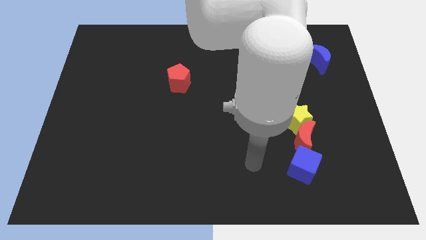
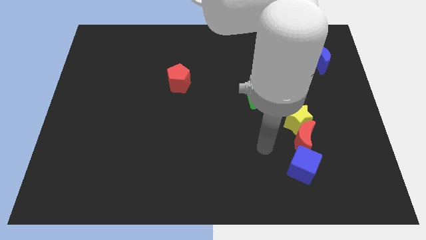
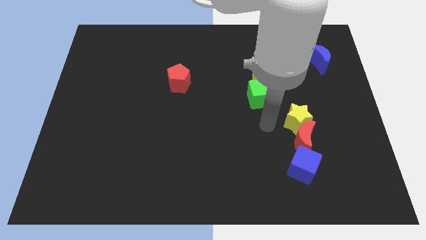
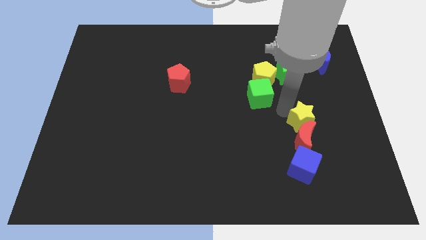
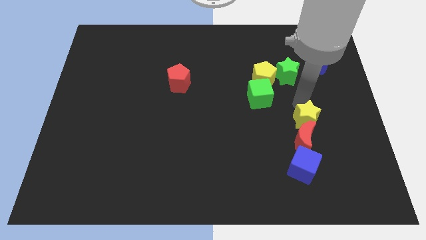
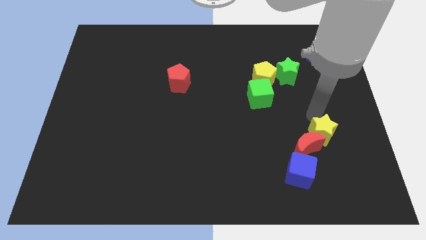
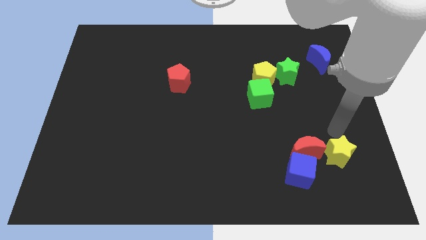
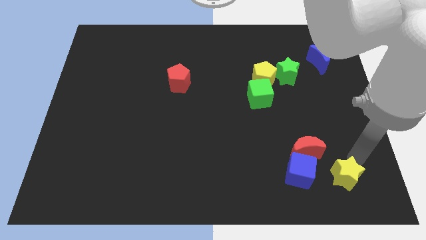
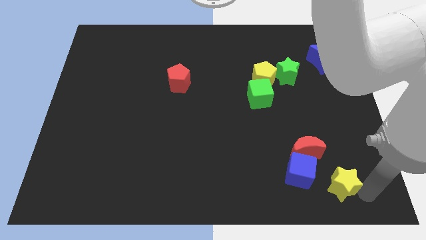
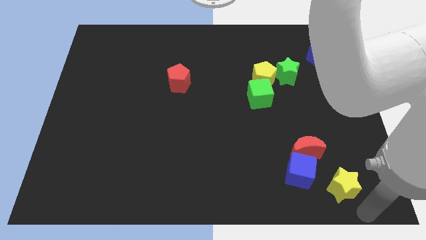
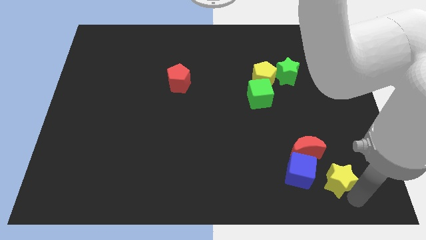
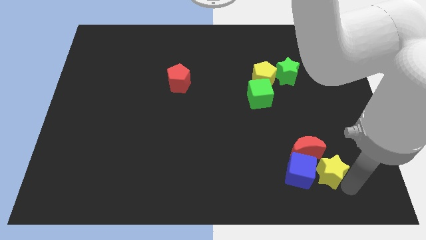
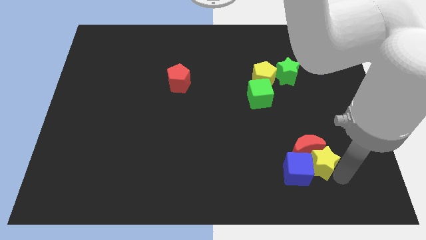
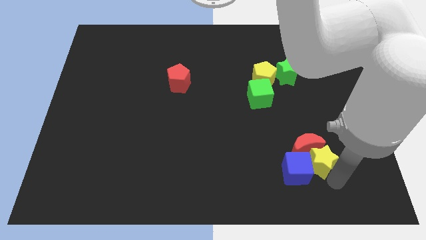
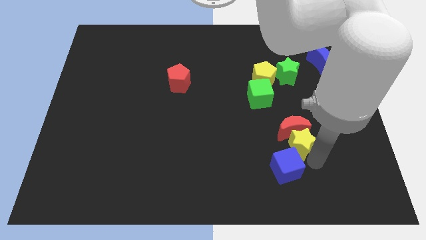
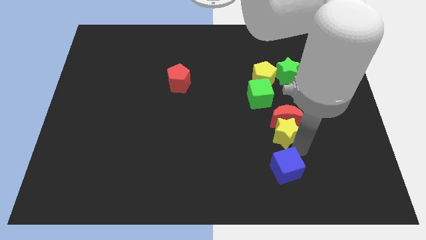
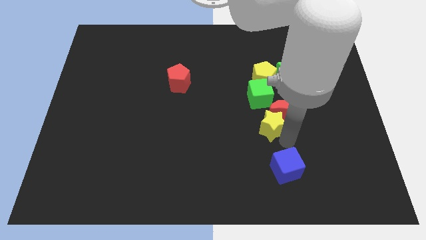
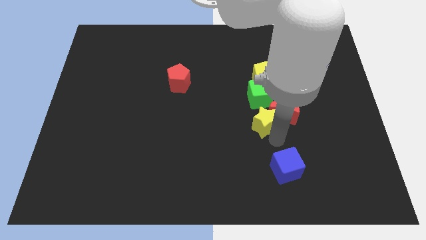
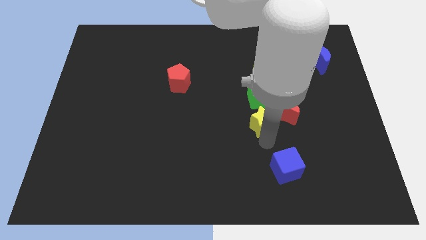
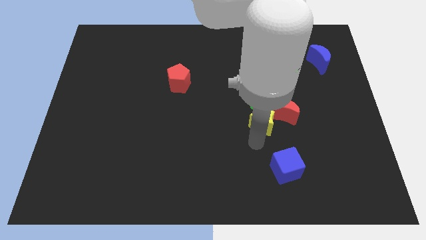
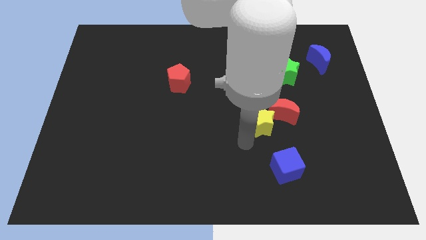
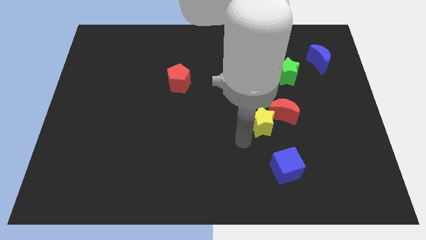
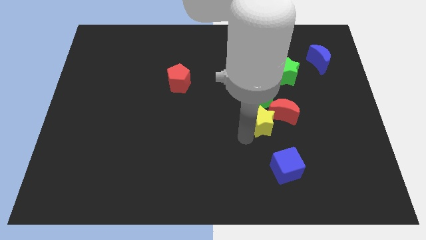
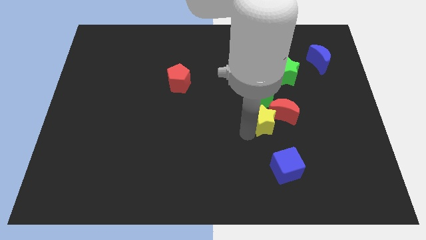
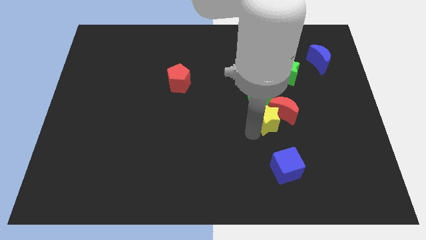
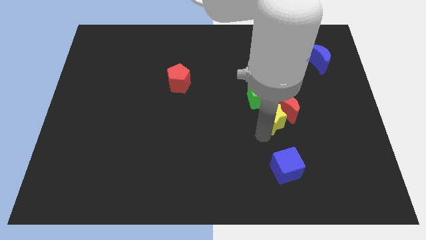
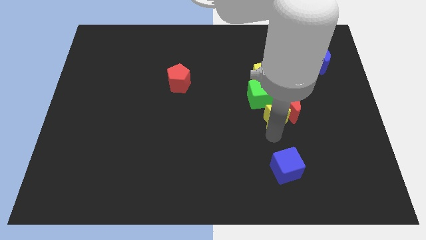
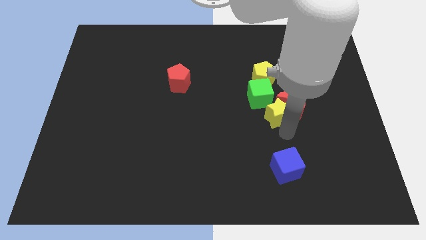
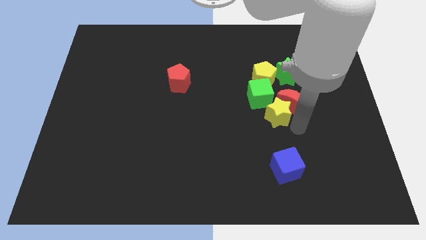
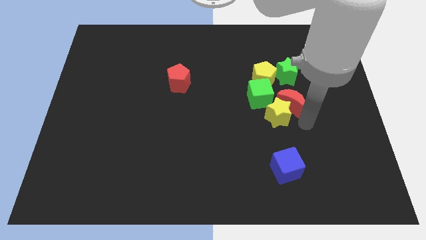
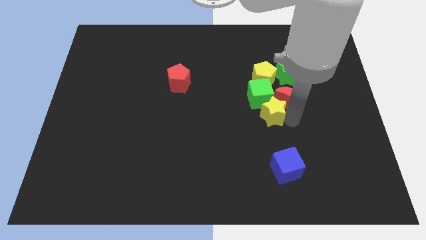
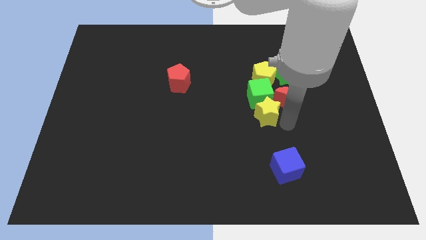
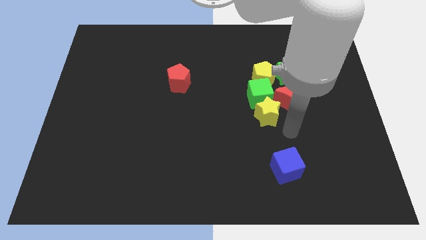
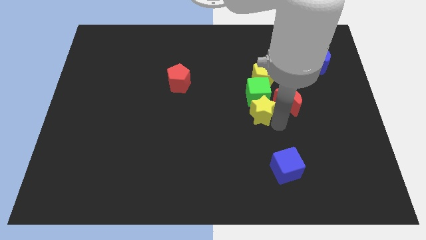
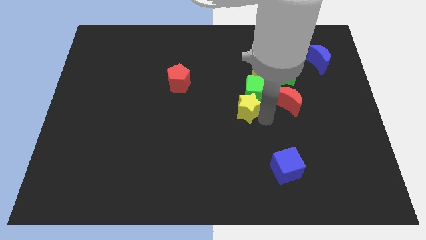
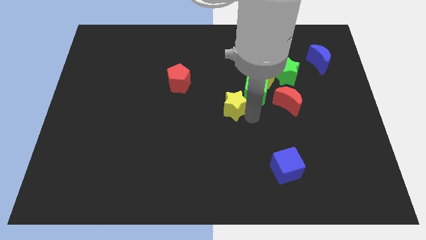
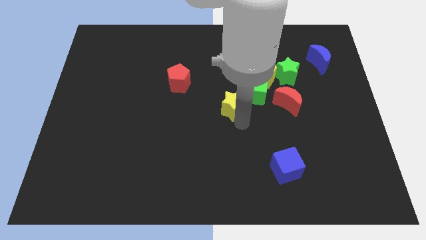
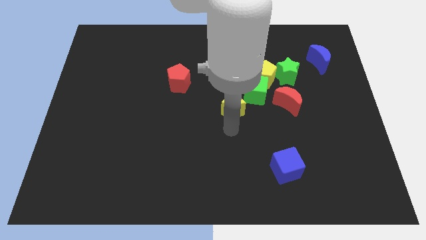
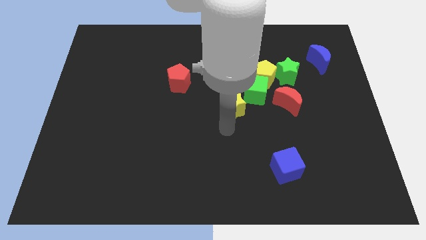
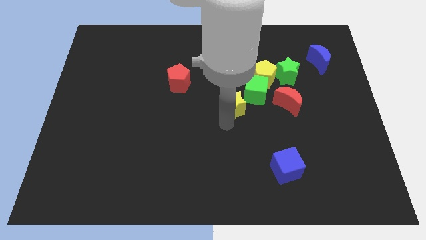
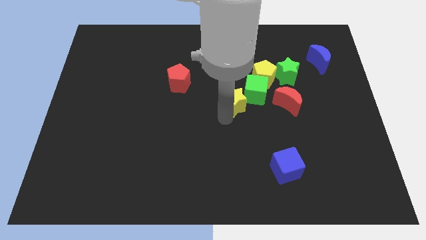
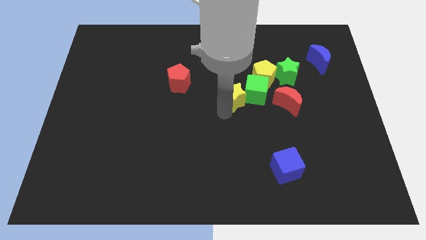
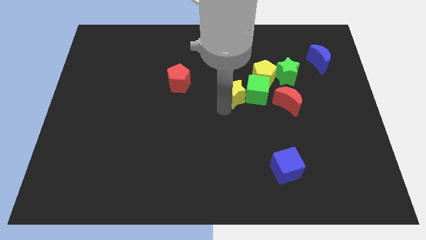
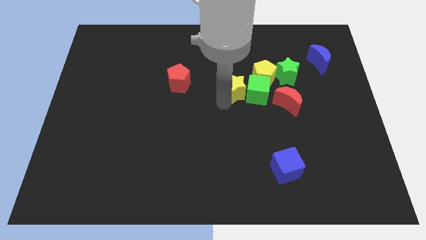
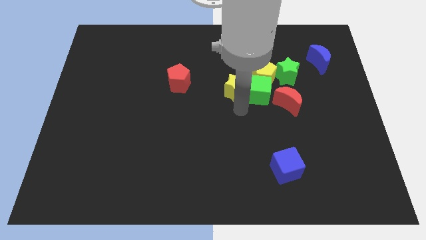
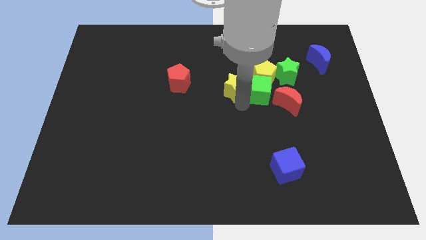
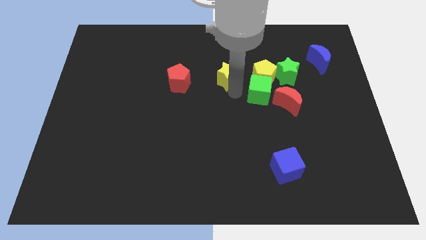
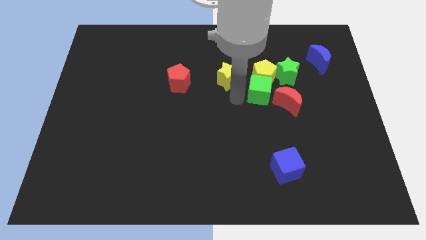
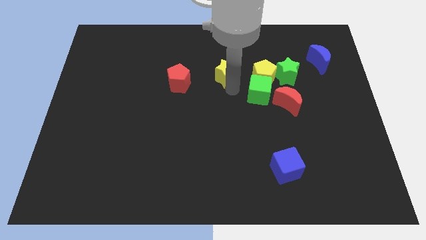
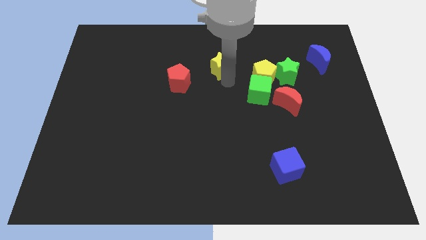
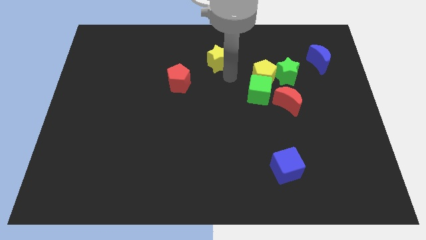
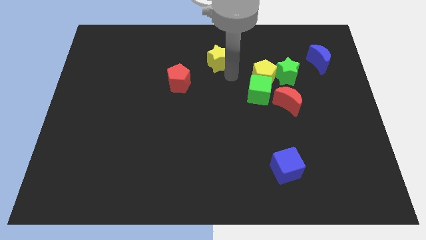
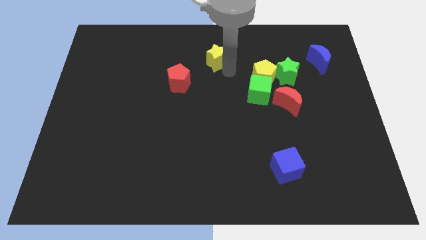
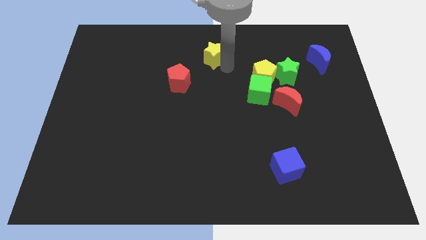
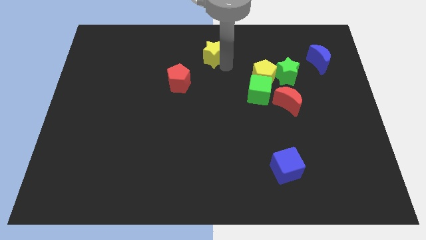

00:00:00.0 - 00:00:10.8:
push the yellow star to the top
